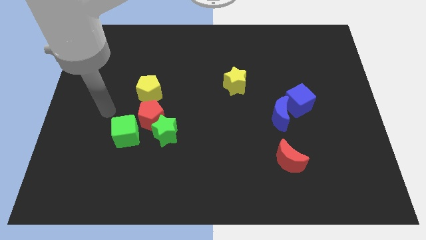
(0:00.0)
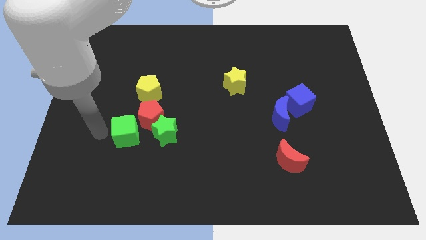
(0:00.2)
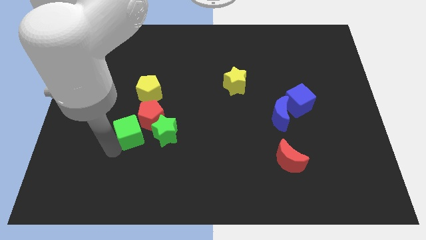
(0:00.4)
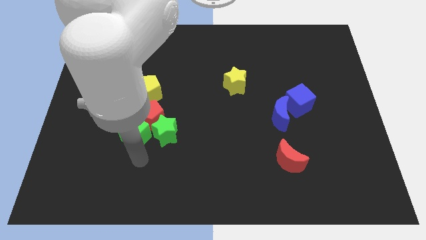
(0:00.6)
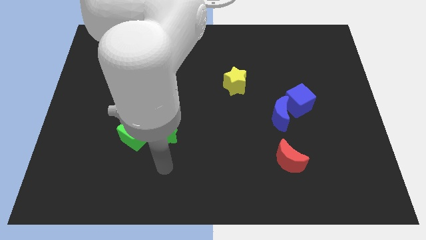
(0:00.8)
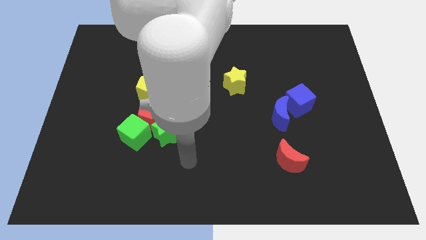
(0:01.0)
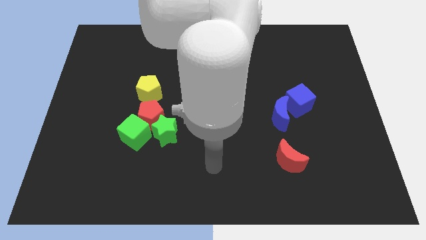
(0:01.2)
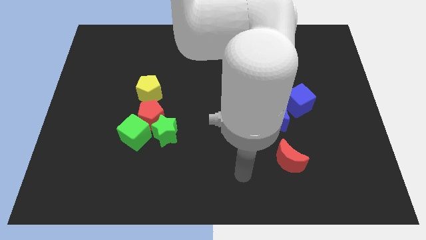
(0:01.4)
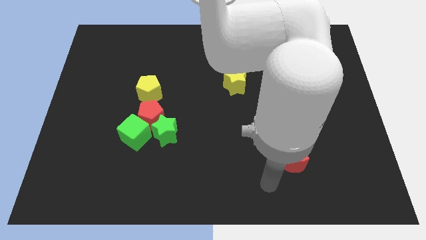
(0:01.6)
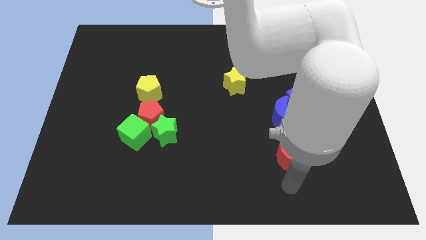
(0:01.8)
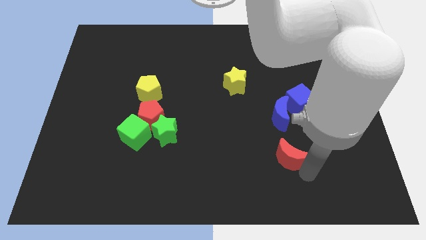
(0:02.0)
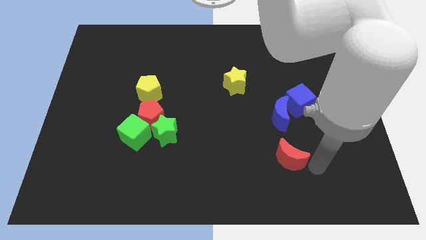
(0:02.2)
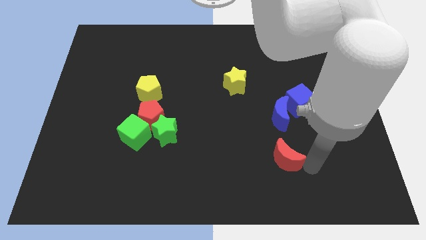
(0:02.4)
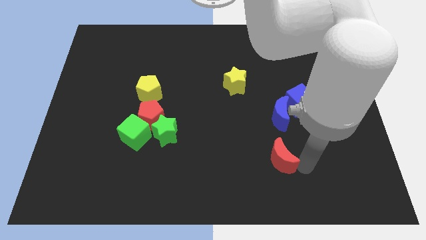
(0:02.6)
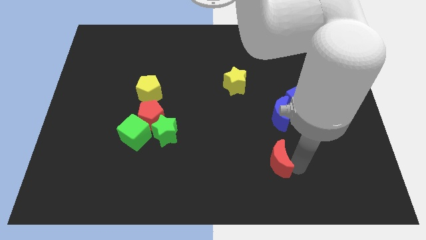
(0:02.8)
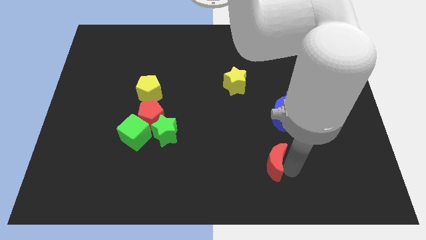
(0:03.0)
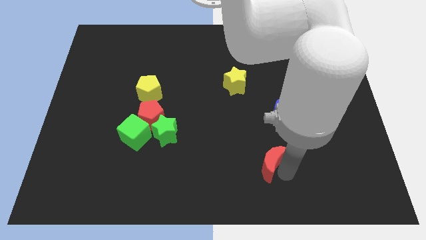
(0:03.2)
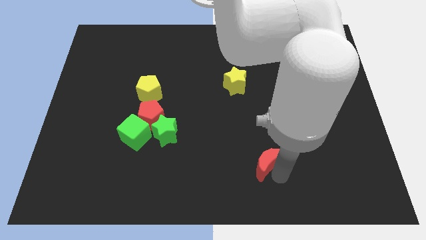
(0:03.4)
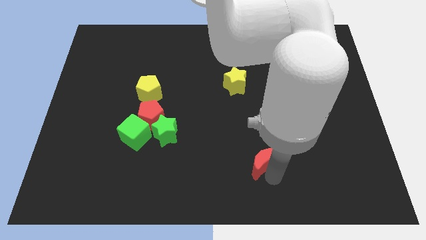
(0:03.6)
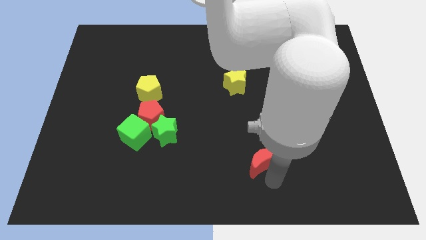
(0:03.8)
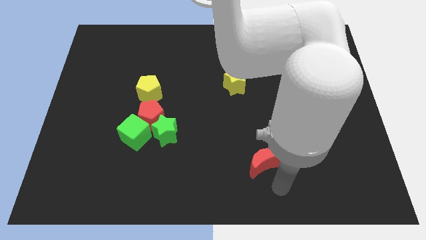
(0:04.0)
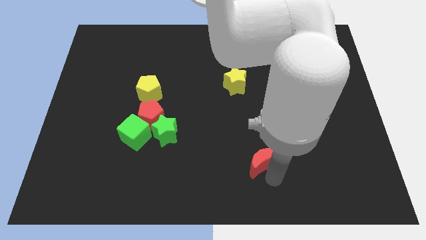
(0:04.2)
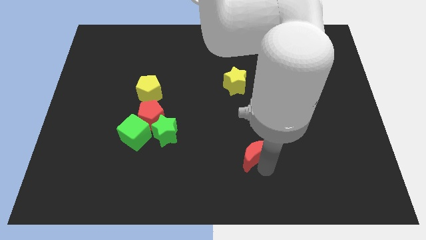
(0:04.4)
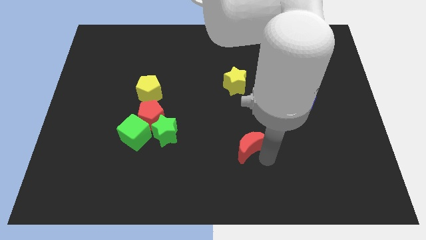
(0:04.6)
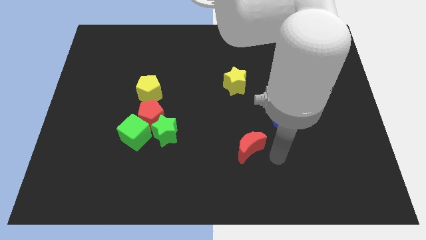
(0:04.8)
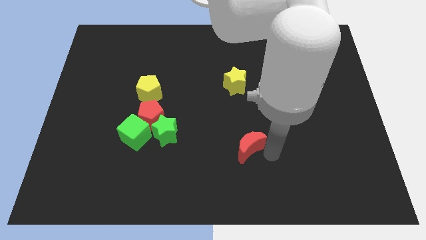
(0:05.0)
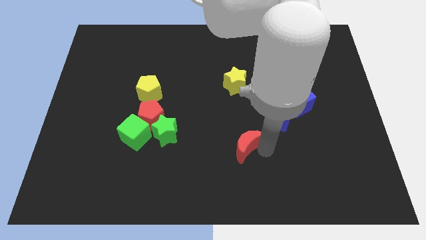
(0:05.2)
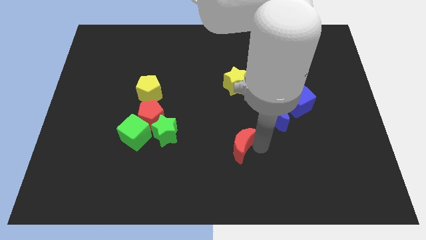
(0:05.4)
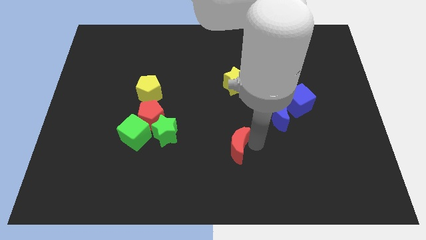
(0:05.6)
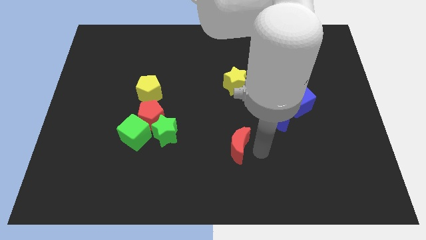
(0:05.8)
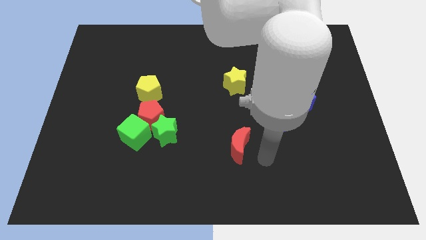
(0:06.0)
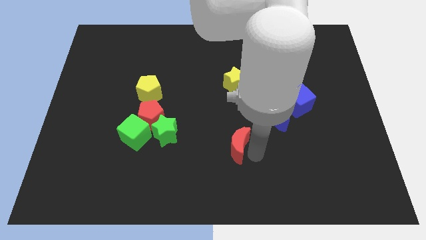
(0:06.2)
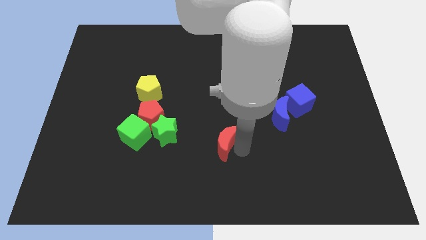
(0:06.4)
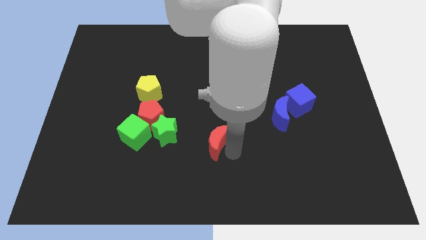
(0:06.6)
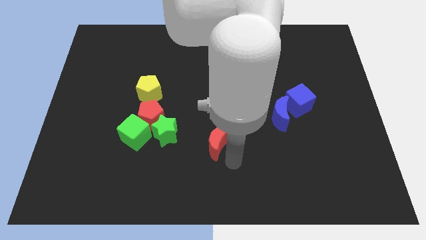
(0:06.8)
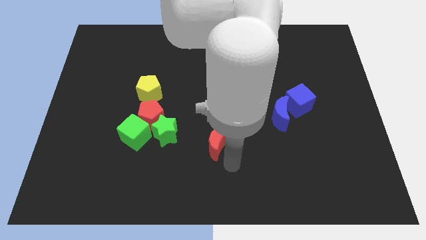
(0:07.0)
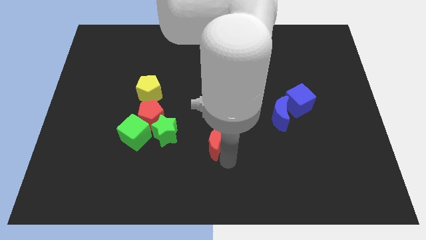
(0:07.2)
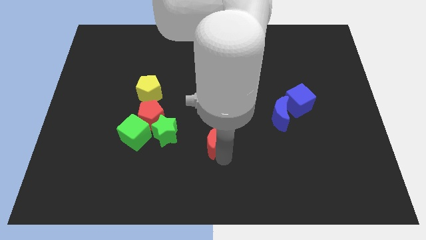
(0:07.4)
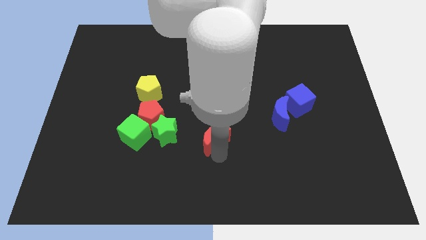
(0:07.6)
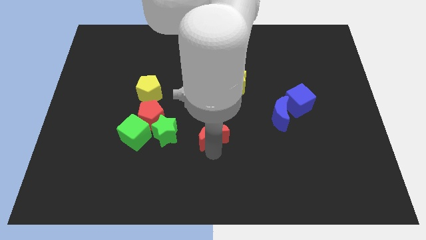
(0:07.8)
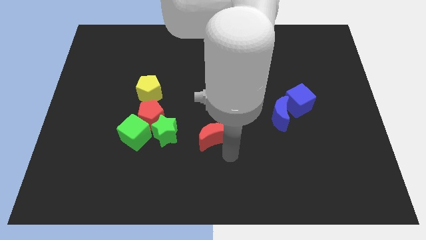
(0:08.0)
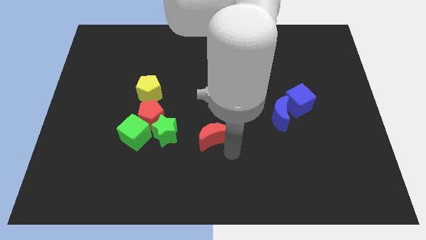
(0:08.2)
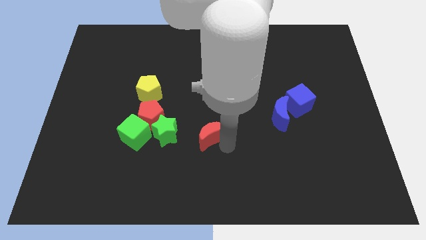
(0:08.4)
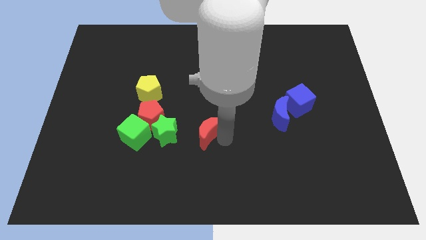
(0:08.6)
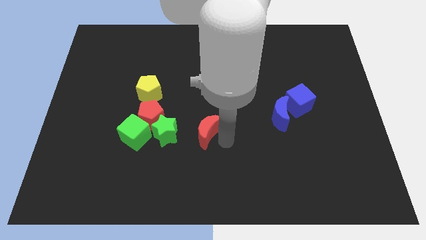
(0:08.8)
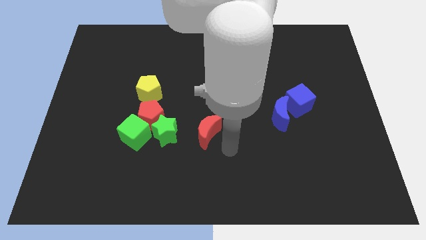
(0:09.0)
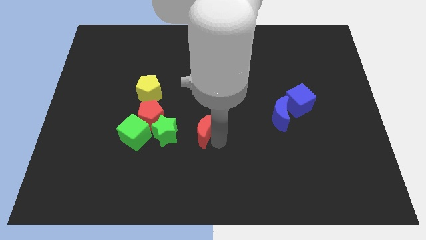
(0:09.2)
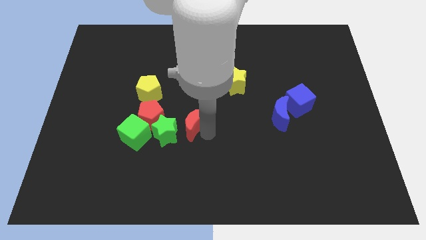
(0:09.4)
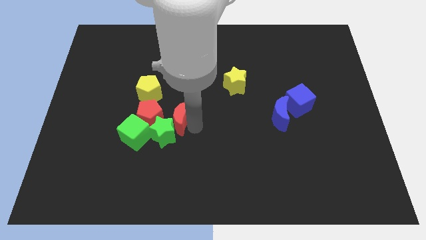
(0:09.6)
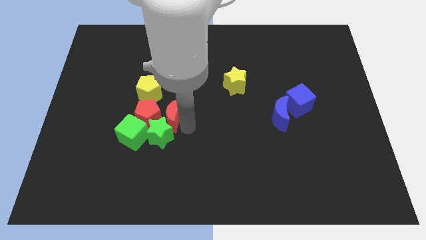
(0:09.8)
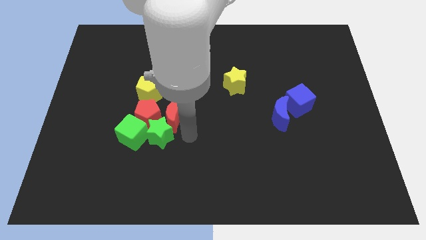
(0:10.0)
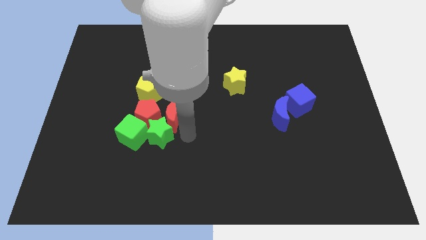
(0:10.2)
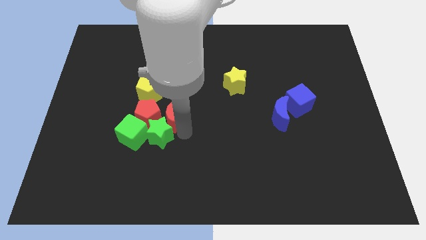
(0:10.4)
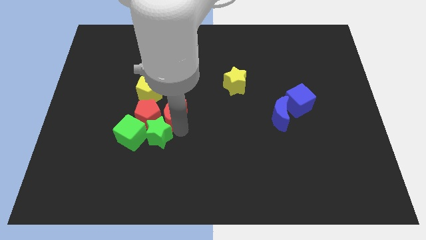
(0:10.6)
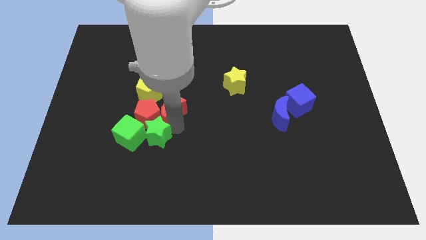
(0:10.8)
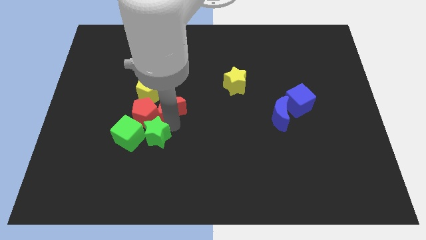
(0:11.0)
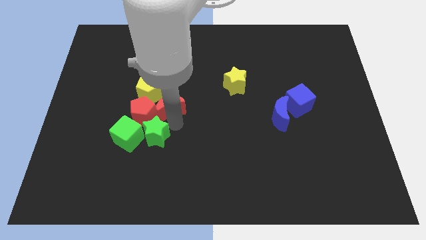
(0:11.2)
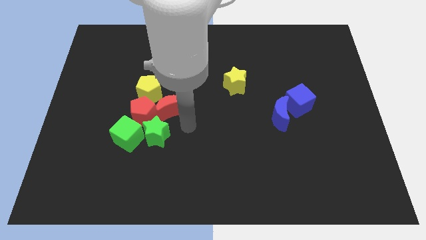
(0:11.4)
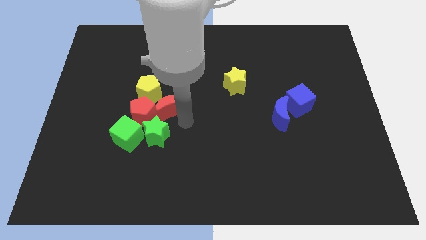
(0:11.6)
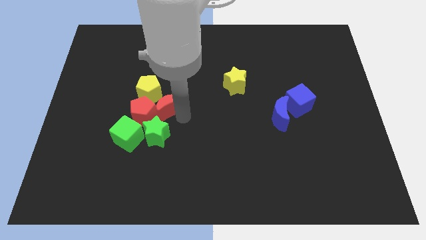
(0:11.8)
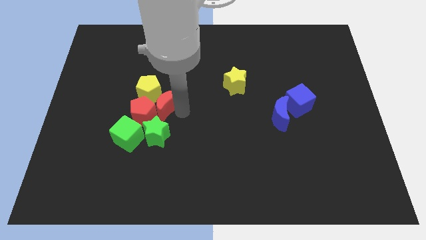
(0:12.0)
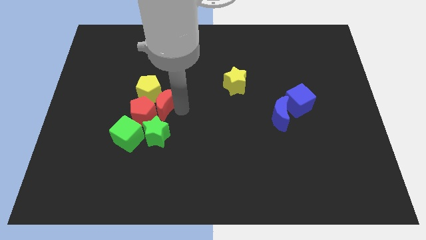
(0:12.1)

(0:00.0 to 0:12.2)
move the red moon next to the yellow pentagon

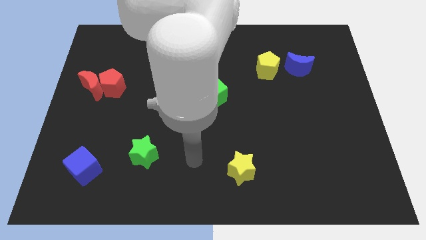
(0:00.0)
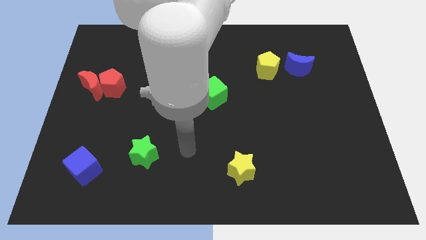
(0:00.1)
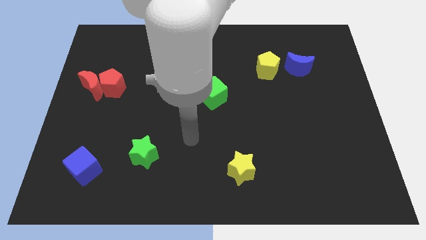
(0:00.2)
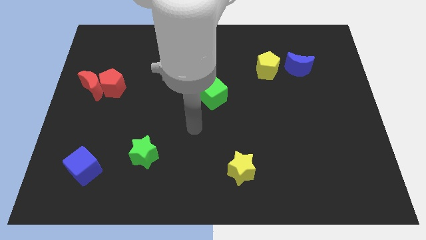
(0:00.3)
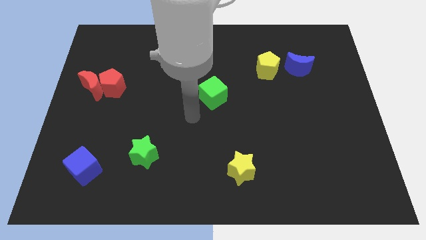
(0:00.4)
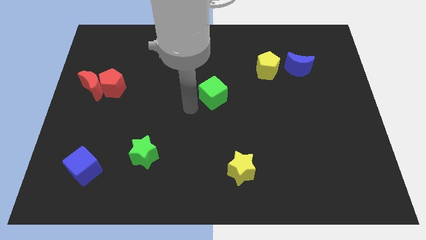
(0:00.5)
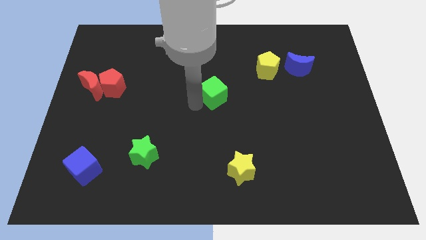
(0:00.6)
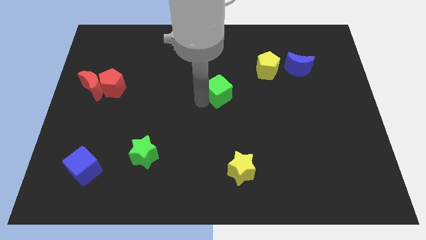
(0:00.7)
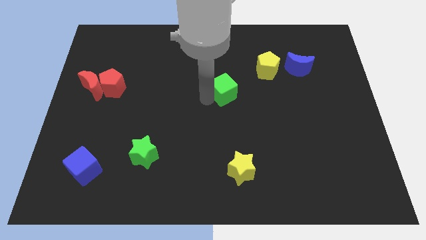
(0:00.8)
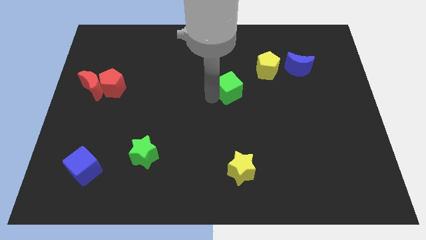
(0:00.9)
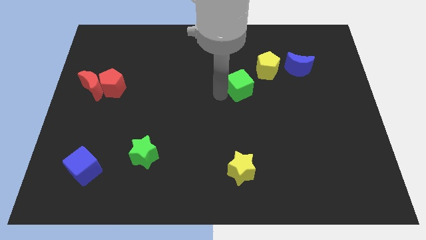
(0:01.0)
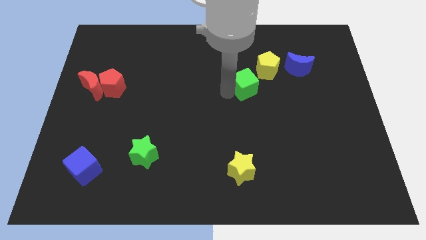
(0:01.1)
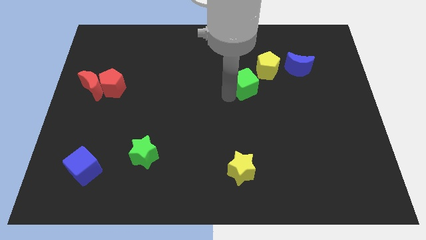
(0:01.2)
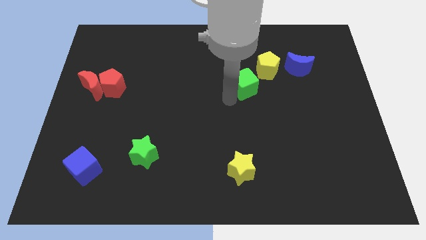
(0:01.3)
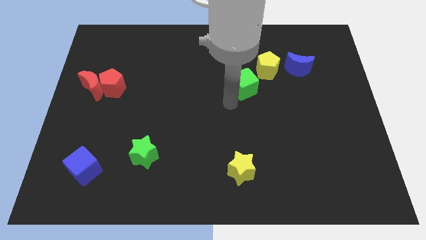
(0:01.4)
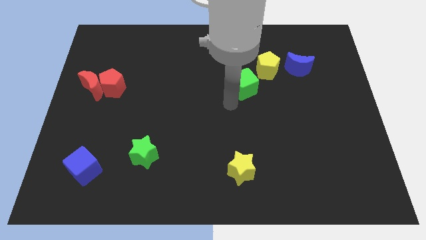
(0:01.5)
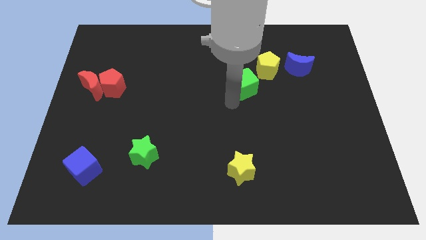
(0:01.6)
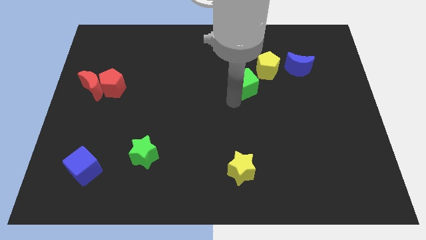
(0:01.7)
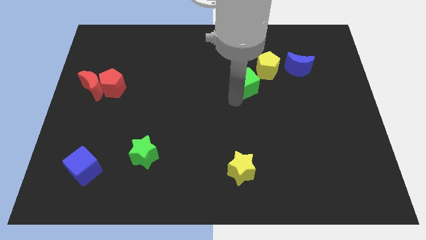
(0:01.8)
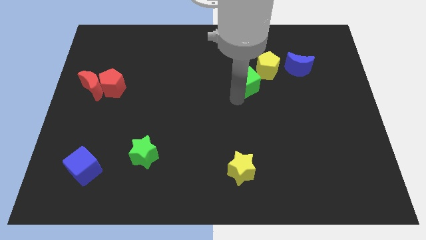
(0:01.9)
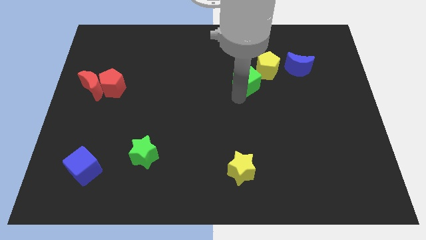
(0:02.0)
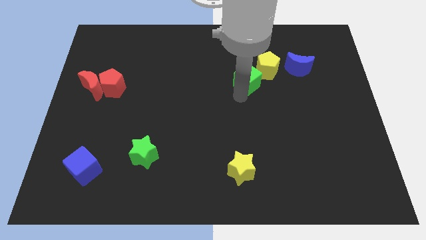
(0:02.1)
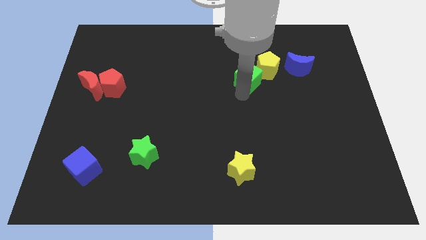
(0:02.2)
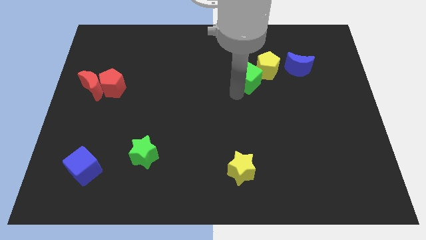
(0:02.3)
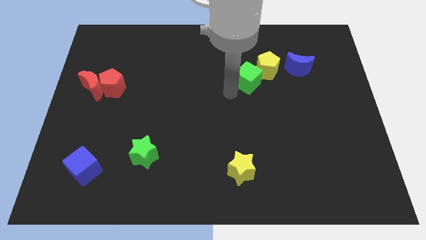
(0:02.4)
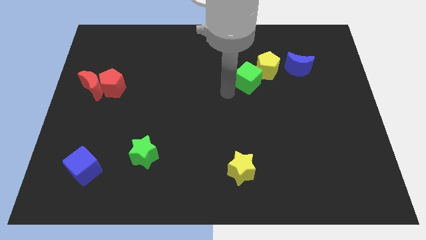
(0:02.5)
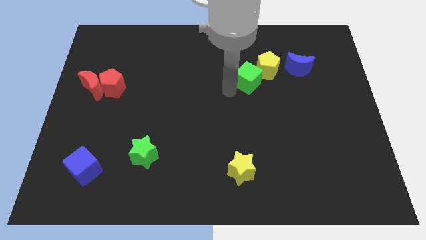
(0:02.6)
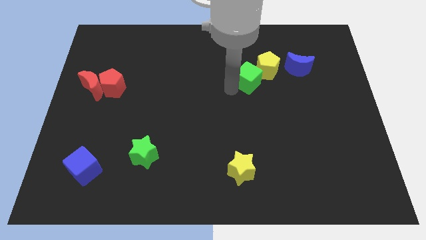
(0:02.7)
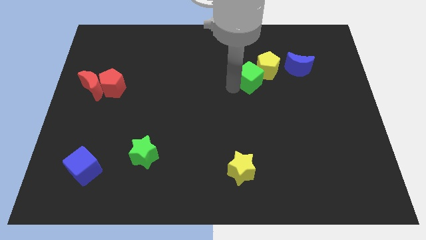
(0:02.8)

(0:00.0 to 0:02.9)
slide the green cube towards the yellow pentagon
